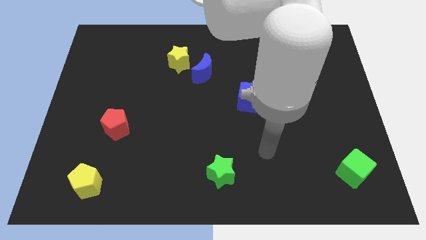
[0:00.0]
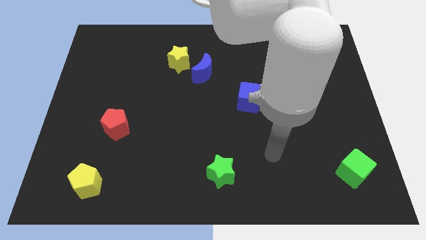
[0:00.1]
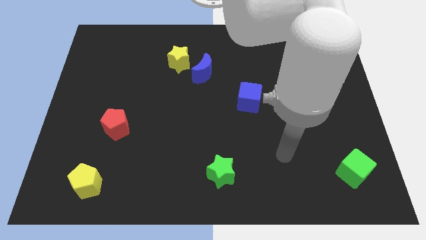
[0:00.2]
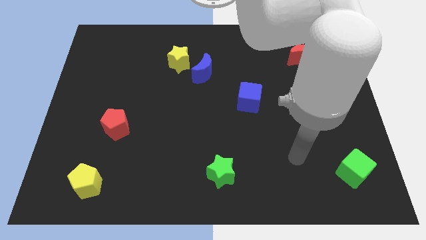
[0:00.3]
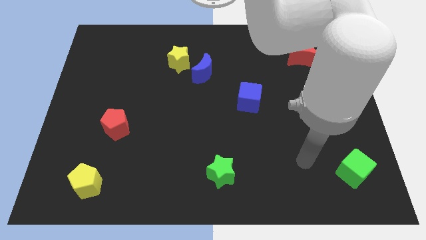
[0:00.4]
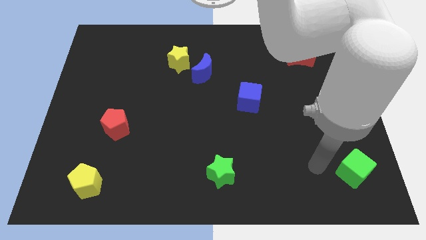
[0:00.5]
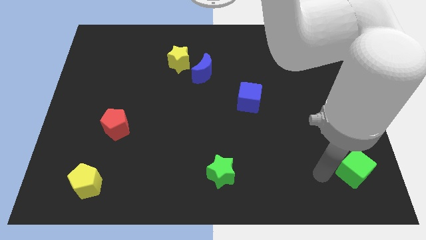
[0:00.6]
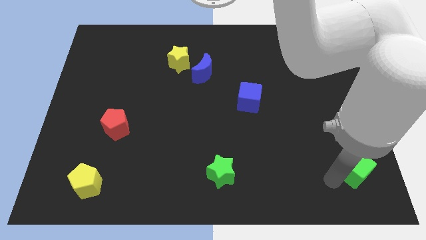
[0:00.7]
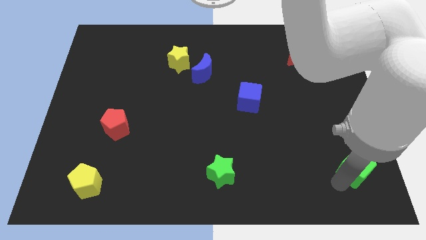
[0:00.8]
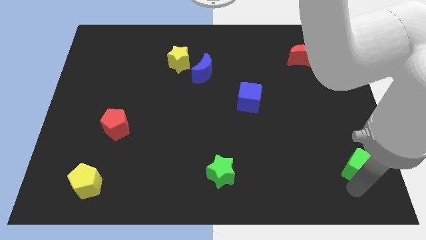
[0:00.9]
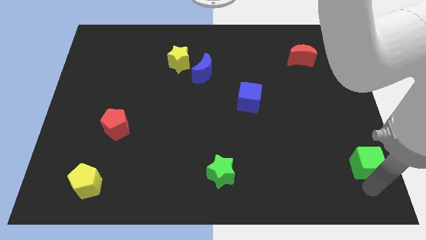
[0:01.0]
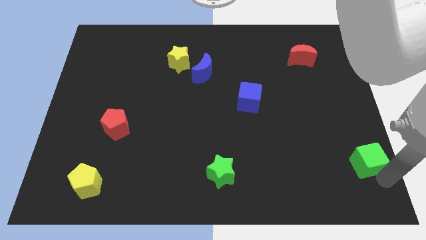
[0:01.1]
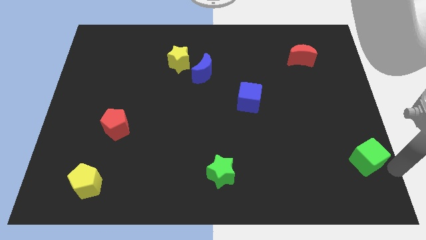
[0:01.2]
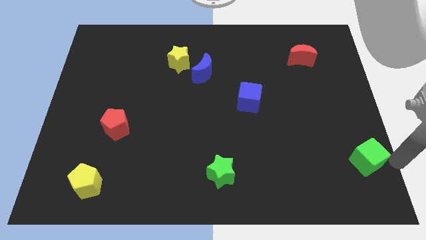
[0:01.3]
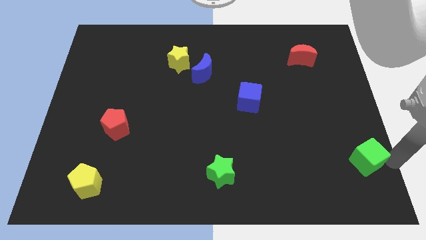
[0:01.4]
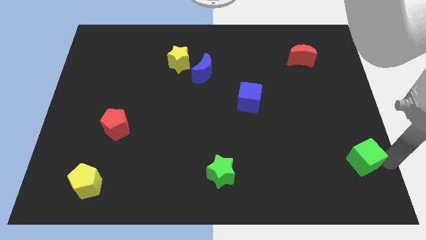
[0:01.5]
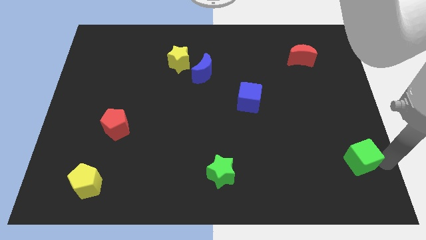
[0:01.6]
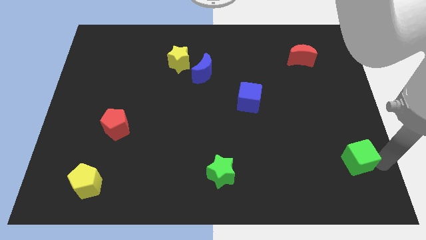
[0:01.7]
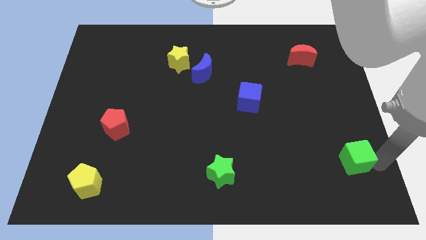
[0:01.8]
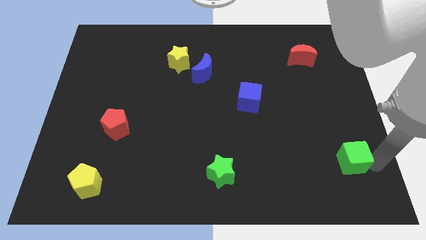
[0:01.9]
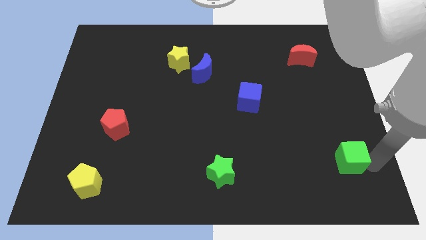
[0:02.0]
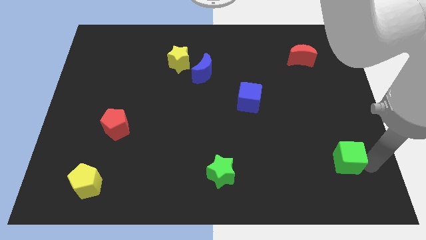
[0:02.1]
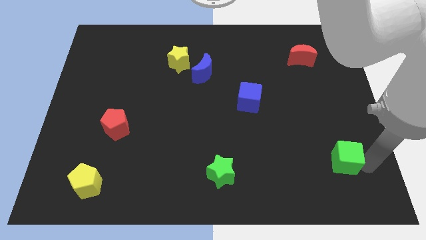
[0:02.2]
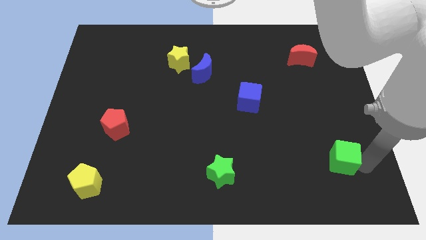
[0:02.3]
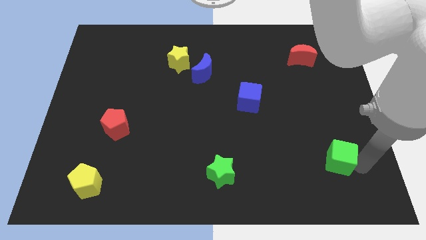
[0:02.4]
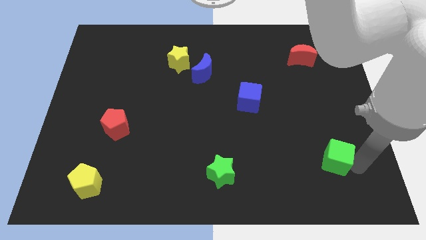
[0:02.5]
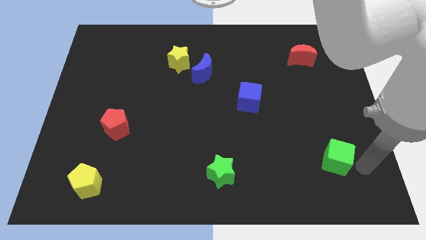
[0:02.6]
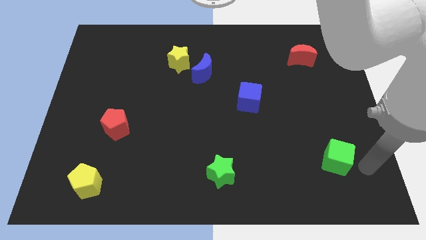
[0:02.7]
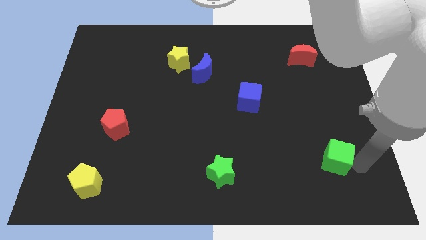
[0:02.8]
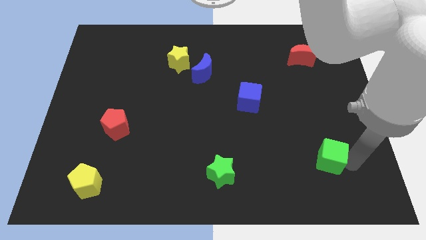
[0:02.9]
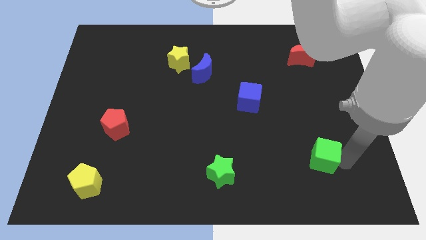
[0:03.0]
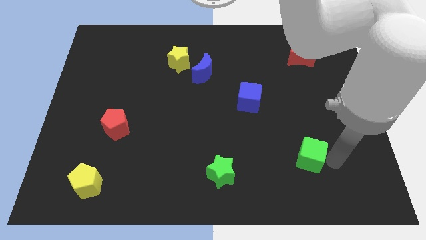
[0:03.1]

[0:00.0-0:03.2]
slide the green cube upwards and then left somewhat

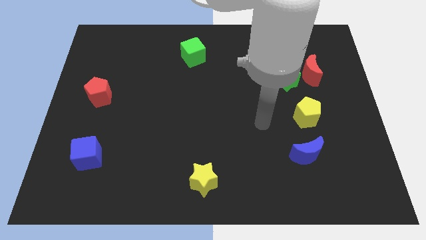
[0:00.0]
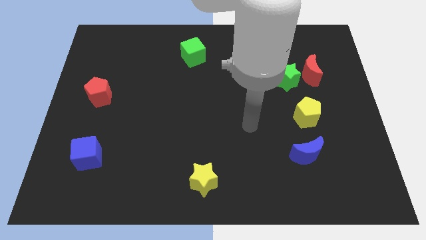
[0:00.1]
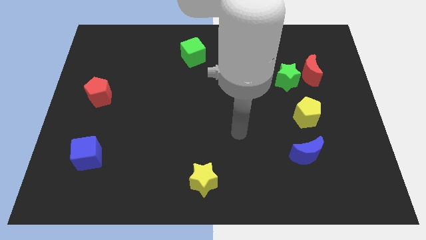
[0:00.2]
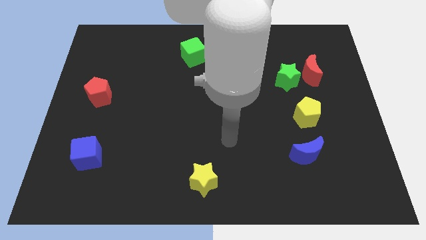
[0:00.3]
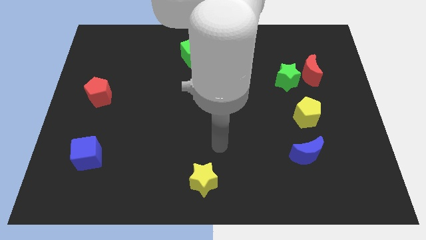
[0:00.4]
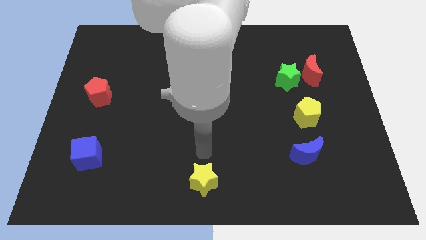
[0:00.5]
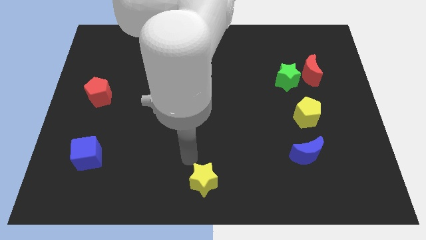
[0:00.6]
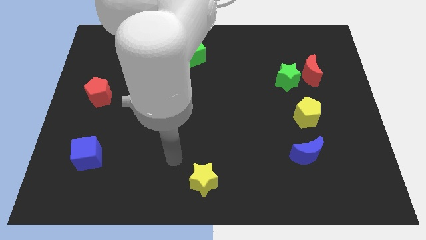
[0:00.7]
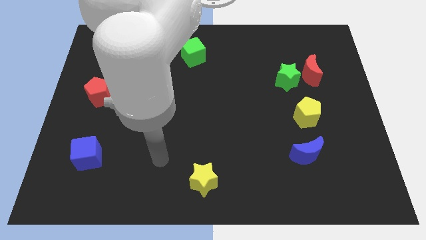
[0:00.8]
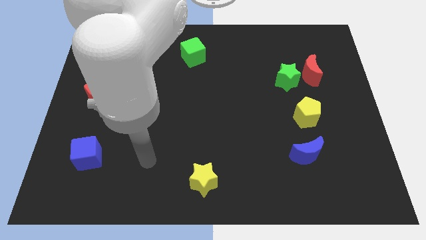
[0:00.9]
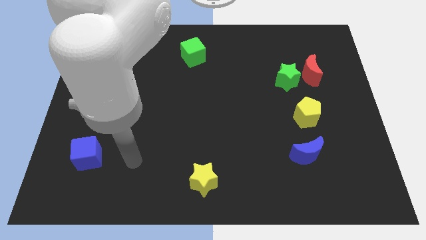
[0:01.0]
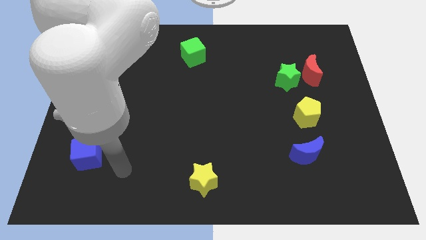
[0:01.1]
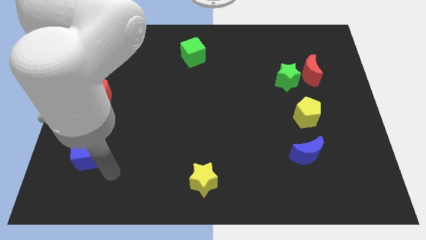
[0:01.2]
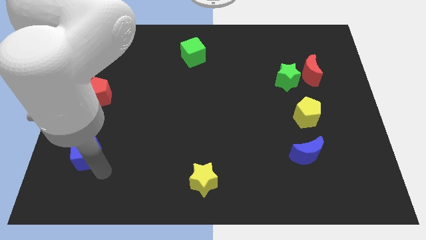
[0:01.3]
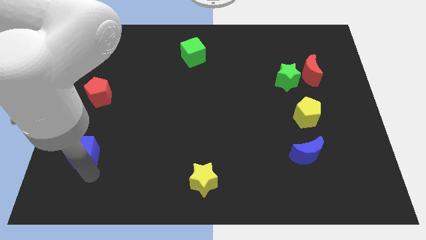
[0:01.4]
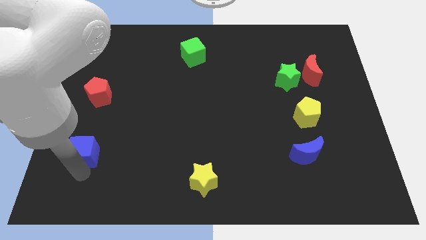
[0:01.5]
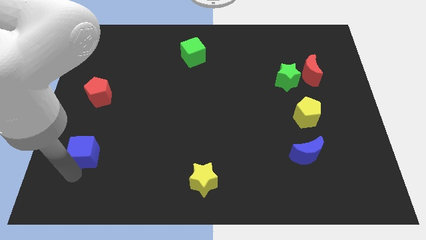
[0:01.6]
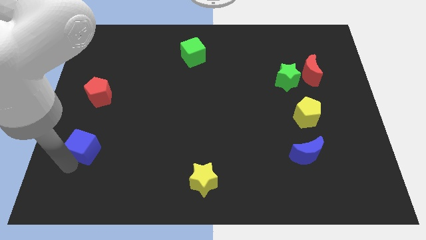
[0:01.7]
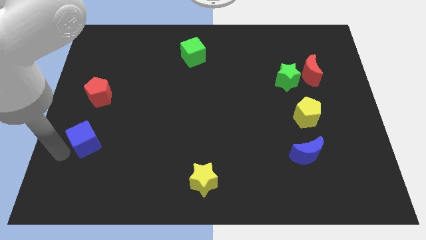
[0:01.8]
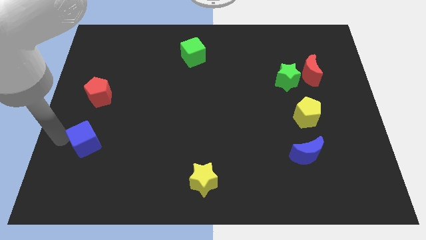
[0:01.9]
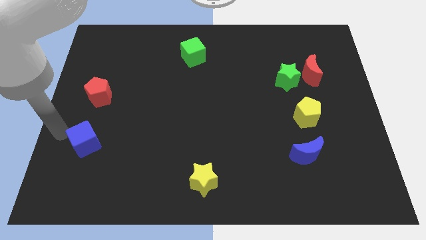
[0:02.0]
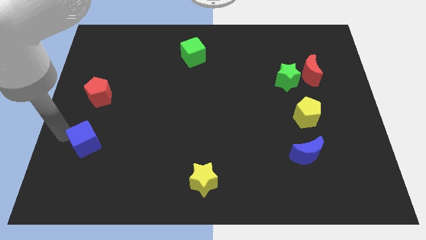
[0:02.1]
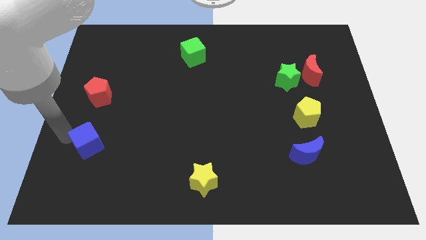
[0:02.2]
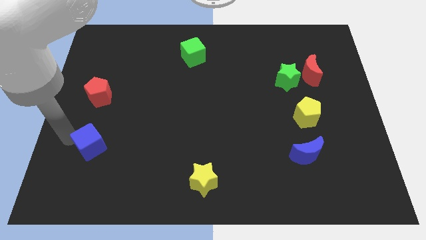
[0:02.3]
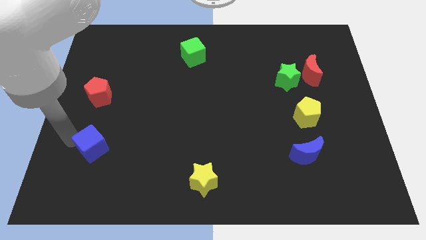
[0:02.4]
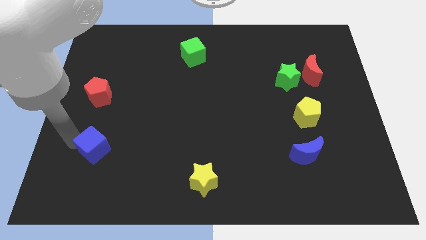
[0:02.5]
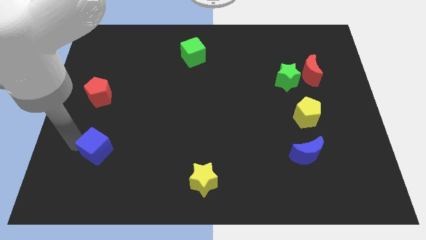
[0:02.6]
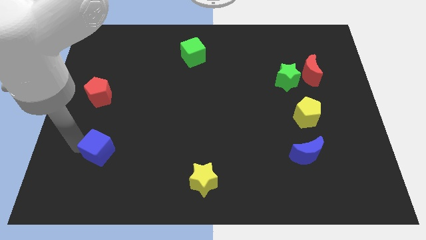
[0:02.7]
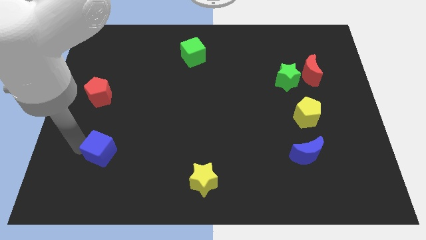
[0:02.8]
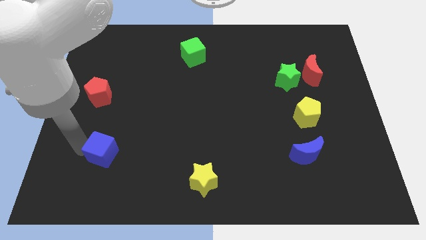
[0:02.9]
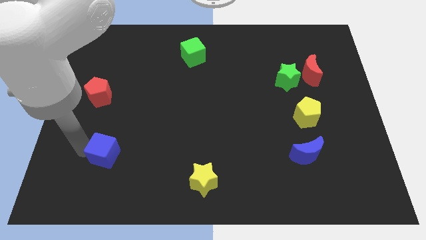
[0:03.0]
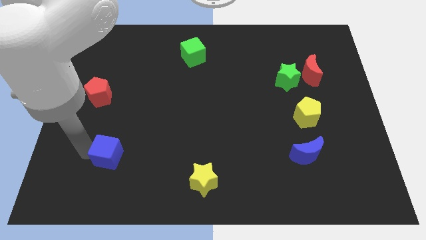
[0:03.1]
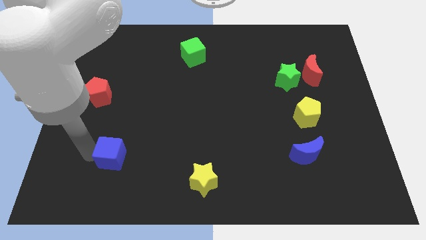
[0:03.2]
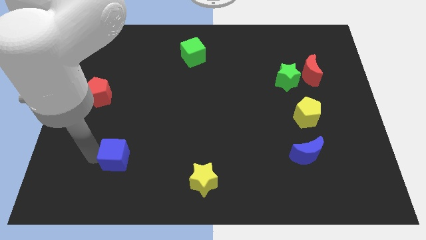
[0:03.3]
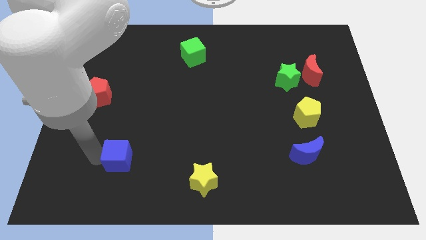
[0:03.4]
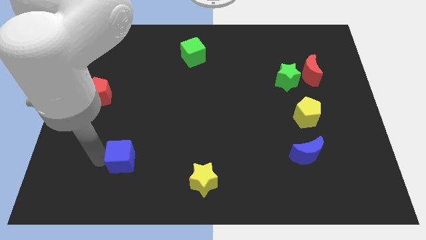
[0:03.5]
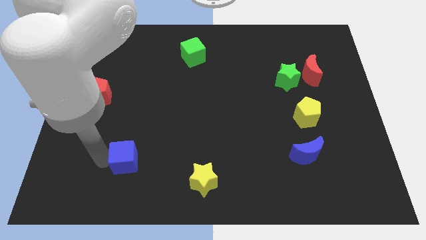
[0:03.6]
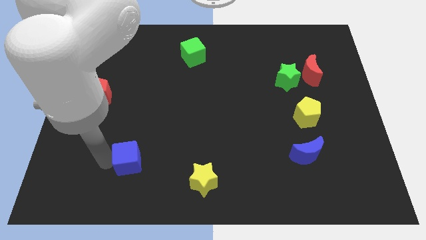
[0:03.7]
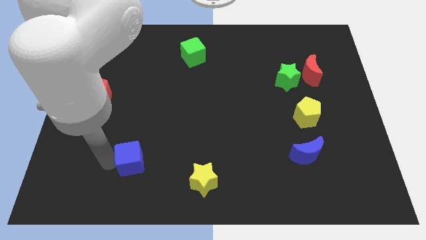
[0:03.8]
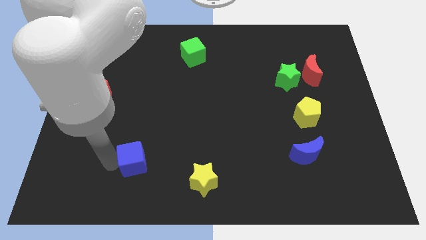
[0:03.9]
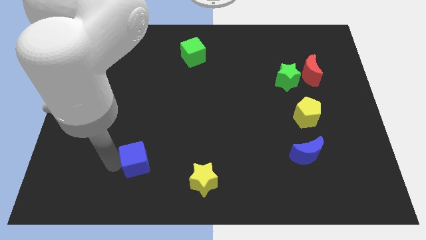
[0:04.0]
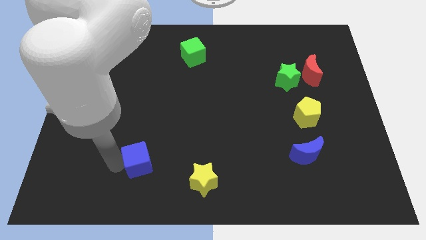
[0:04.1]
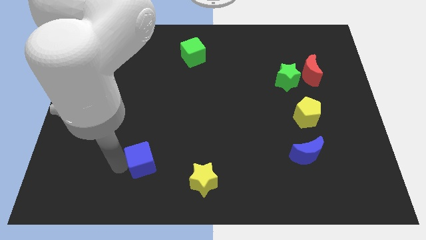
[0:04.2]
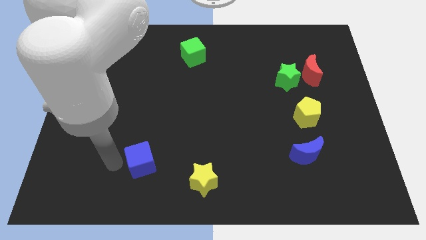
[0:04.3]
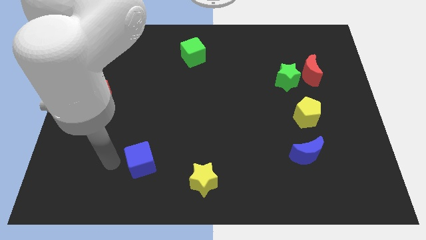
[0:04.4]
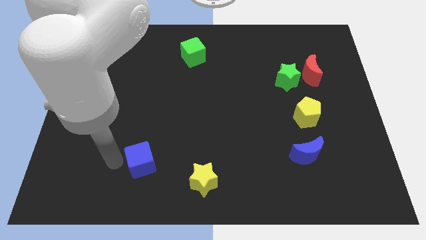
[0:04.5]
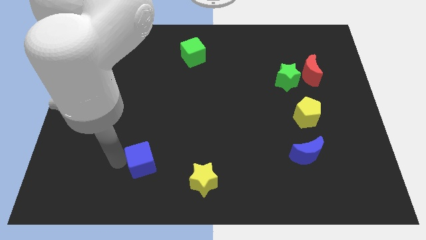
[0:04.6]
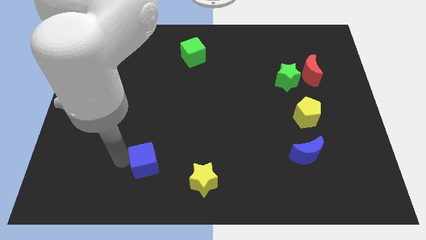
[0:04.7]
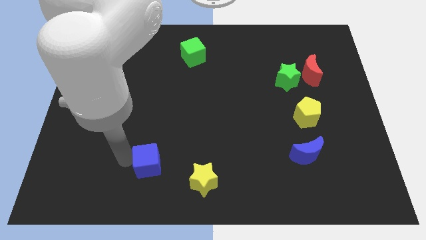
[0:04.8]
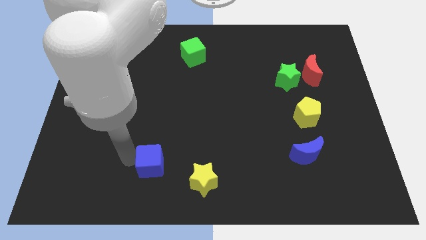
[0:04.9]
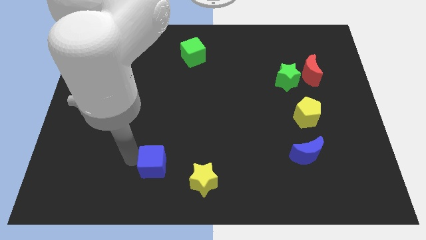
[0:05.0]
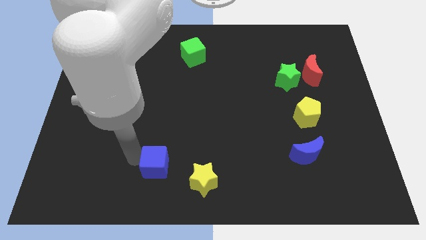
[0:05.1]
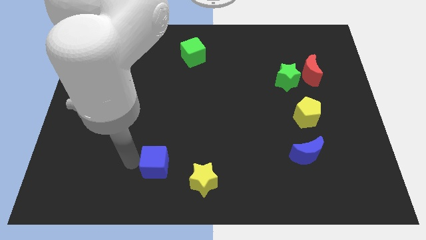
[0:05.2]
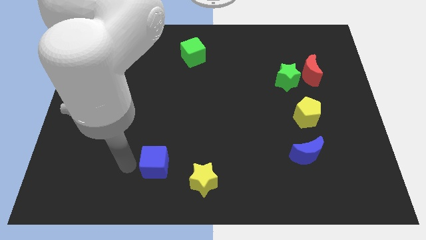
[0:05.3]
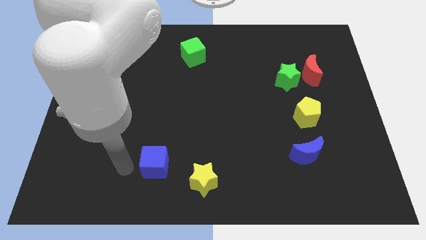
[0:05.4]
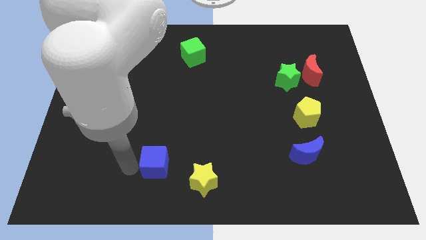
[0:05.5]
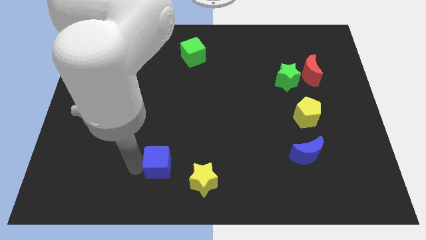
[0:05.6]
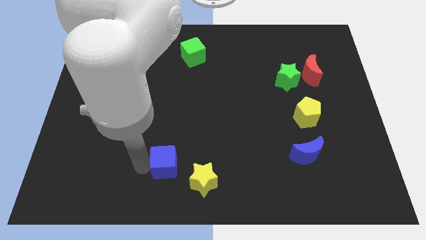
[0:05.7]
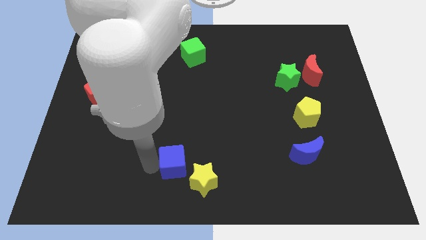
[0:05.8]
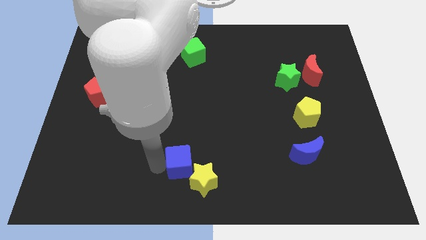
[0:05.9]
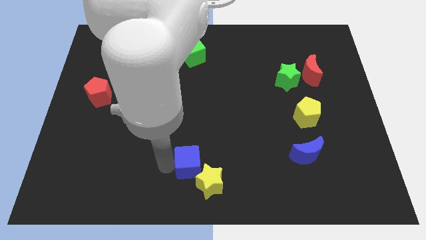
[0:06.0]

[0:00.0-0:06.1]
move the blue cube to the right
